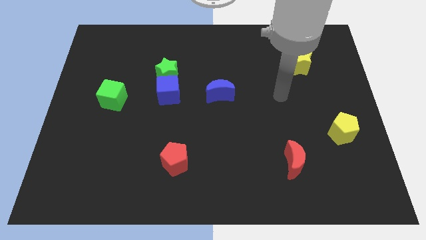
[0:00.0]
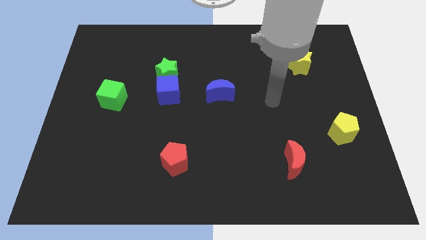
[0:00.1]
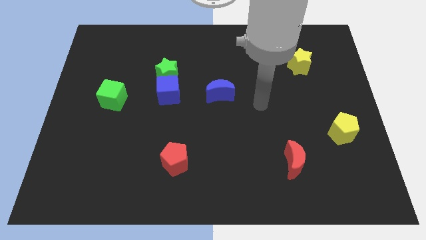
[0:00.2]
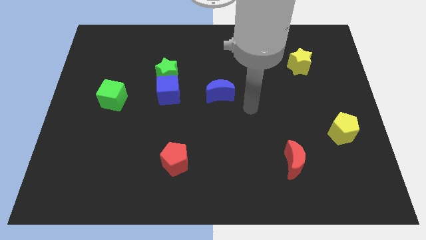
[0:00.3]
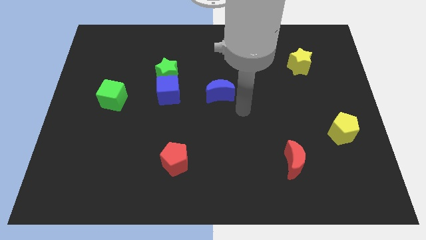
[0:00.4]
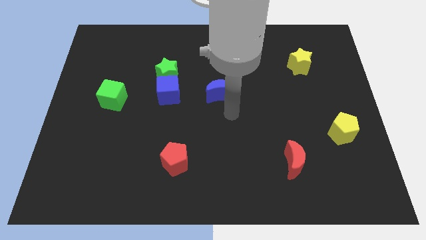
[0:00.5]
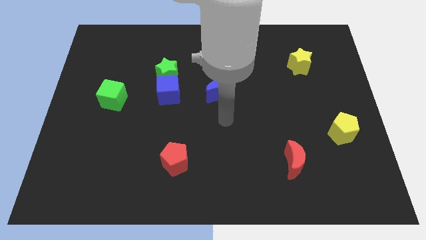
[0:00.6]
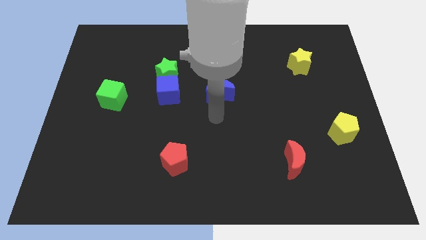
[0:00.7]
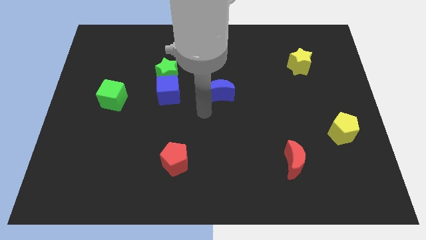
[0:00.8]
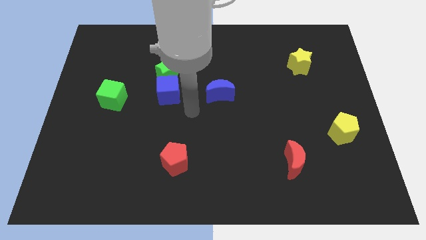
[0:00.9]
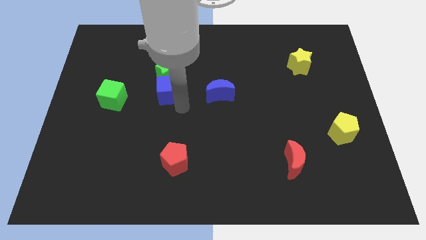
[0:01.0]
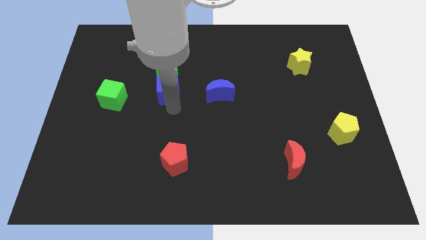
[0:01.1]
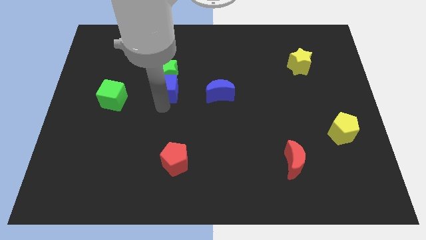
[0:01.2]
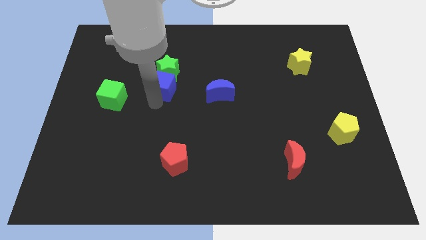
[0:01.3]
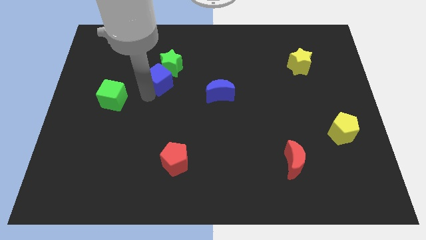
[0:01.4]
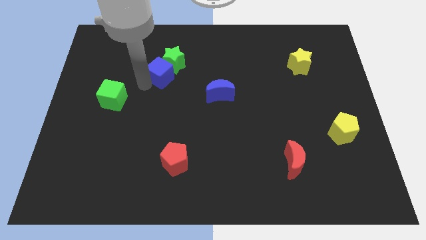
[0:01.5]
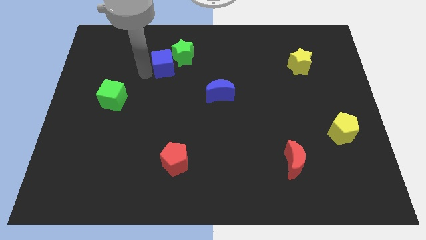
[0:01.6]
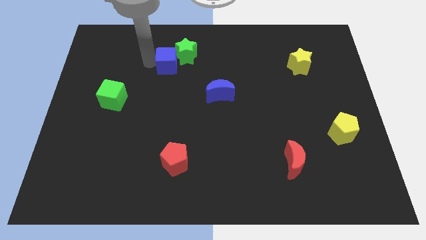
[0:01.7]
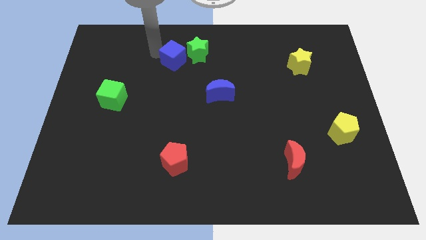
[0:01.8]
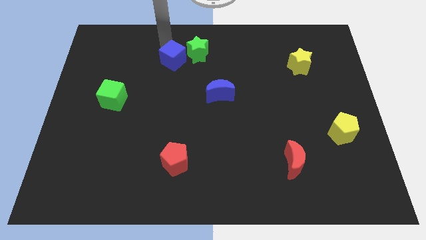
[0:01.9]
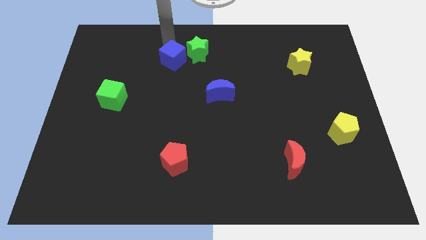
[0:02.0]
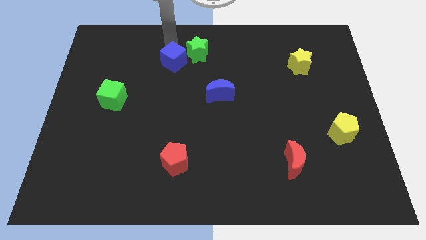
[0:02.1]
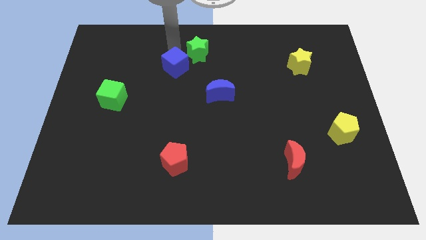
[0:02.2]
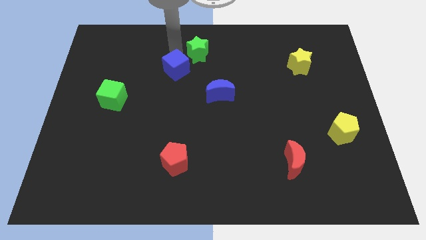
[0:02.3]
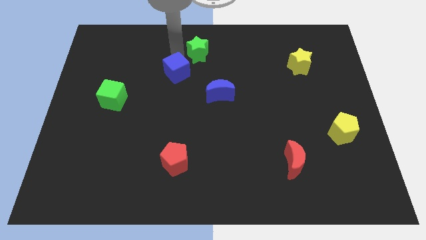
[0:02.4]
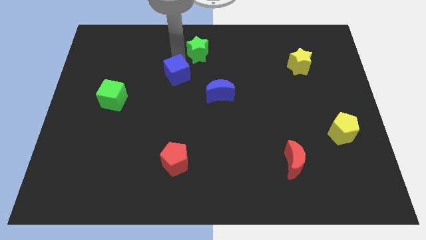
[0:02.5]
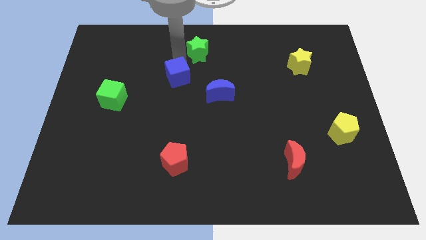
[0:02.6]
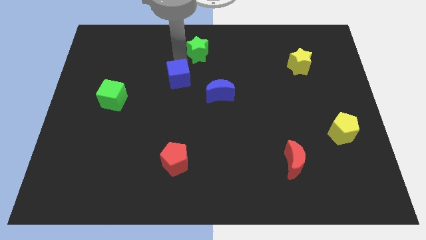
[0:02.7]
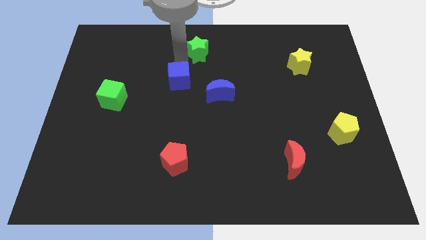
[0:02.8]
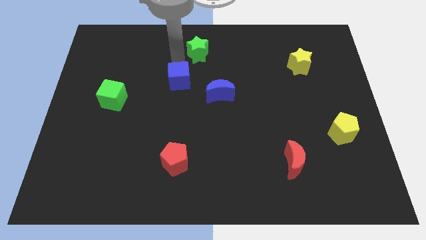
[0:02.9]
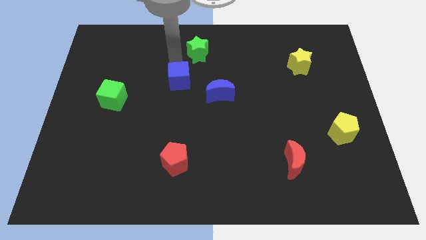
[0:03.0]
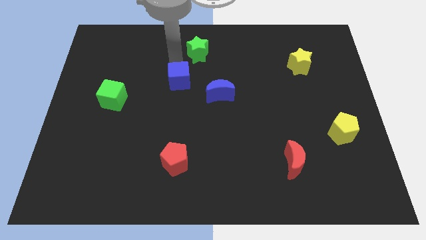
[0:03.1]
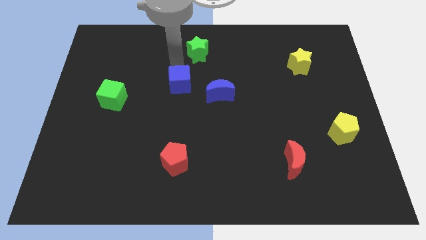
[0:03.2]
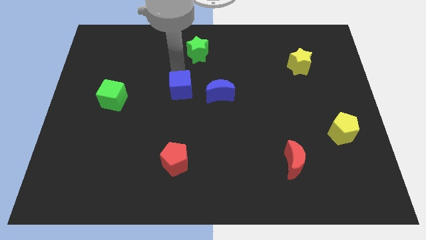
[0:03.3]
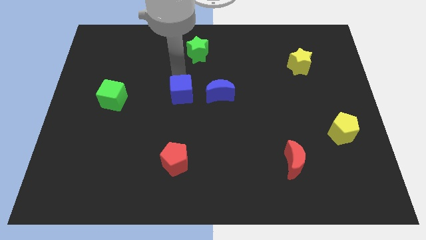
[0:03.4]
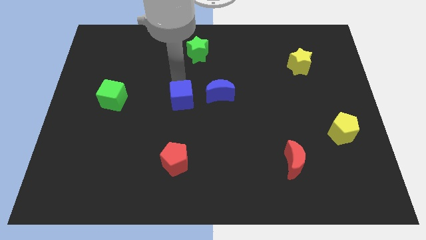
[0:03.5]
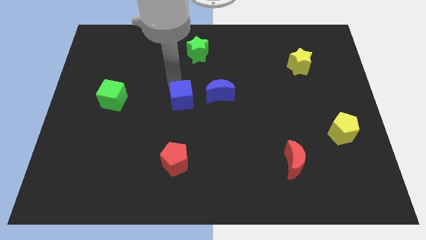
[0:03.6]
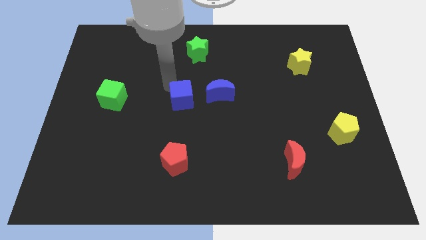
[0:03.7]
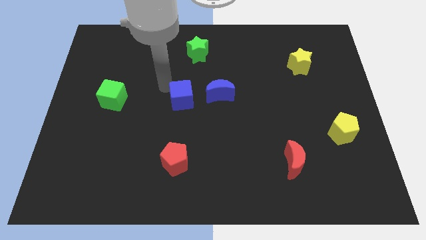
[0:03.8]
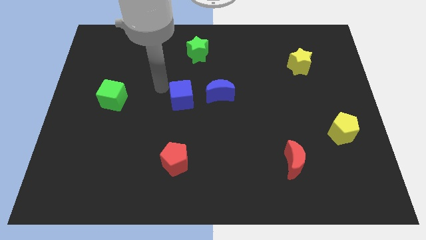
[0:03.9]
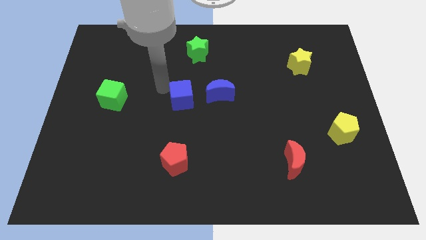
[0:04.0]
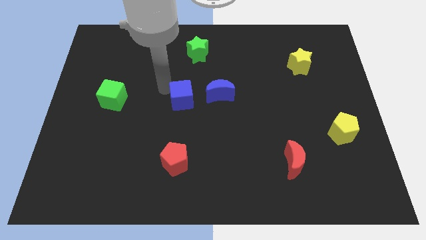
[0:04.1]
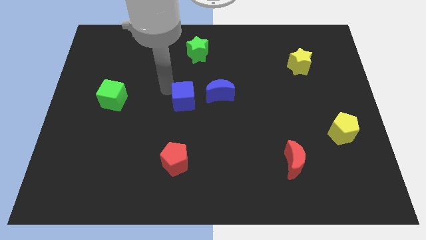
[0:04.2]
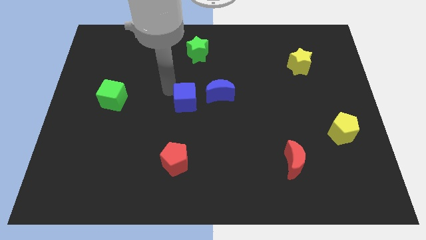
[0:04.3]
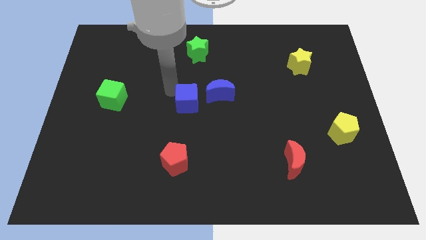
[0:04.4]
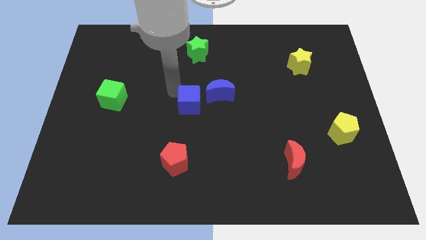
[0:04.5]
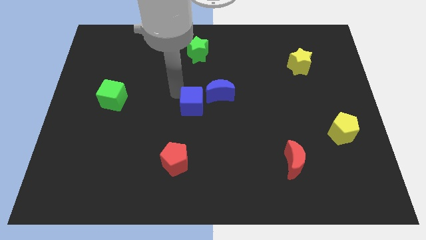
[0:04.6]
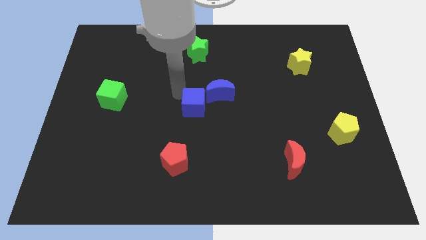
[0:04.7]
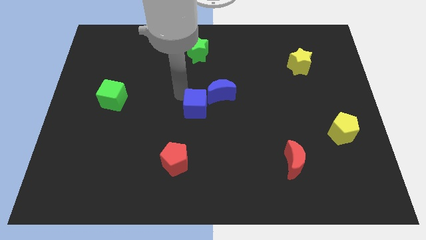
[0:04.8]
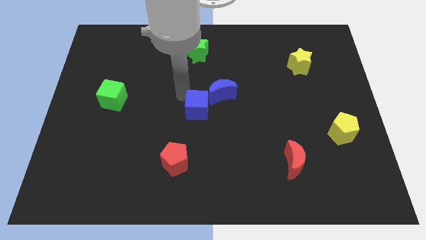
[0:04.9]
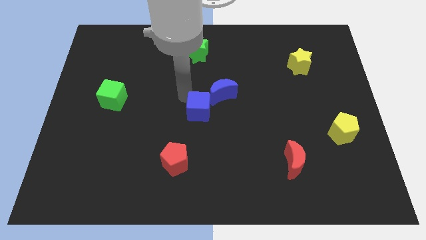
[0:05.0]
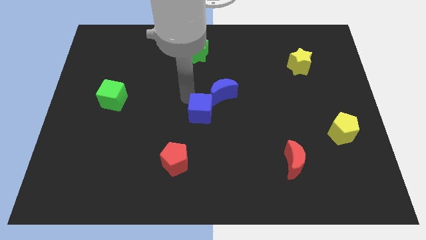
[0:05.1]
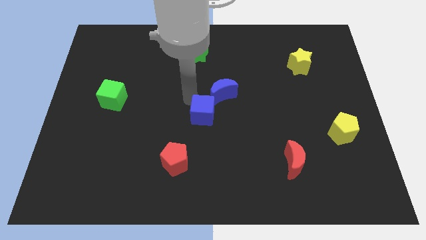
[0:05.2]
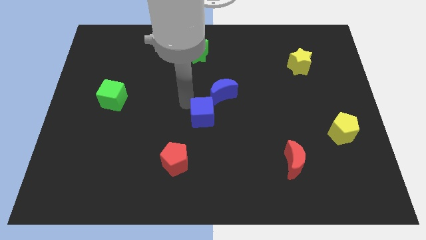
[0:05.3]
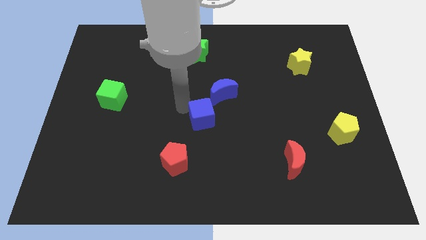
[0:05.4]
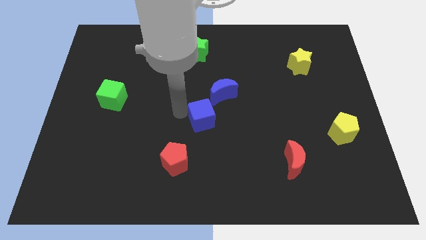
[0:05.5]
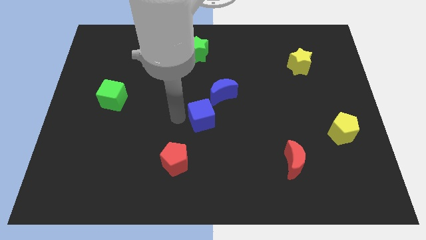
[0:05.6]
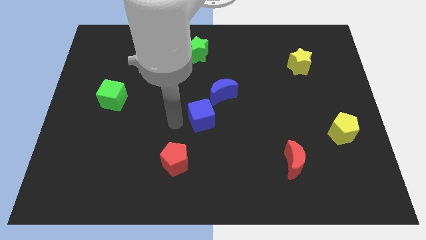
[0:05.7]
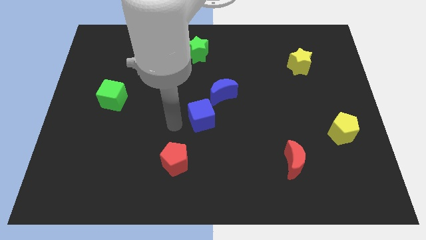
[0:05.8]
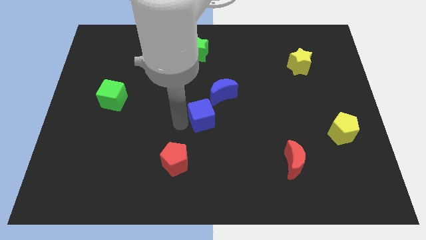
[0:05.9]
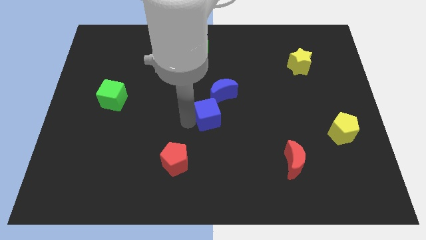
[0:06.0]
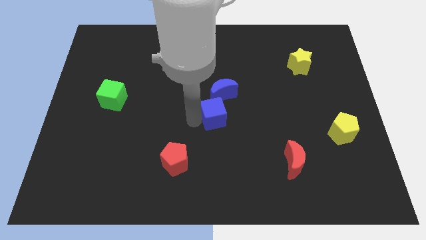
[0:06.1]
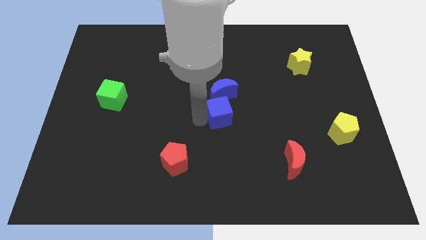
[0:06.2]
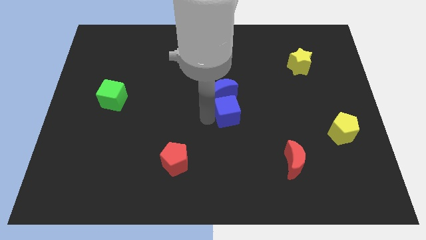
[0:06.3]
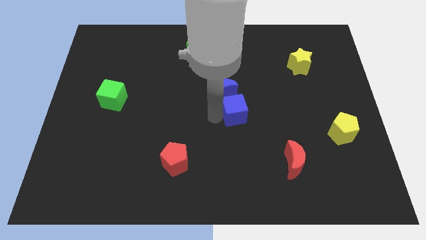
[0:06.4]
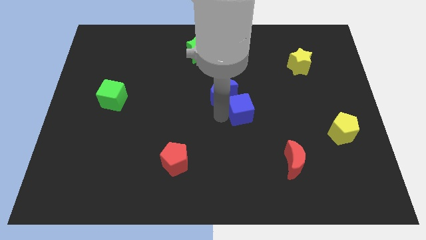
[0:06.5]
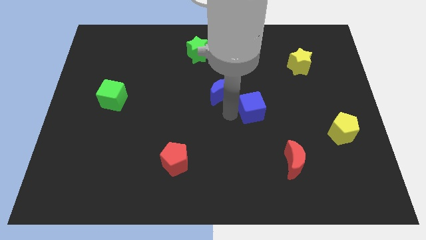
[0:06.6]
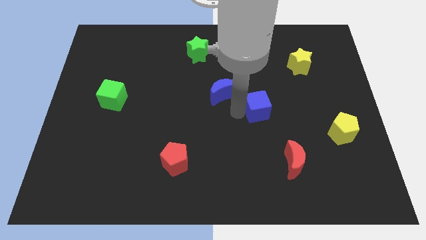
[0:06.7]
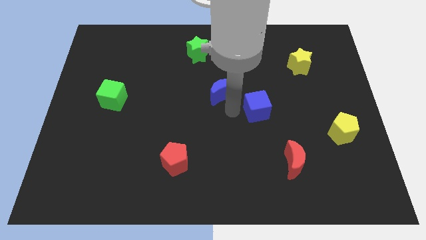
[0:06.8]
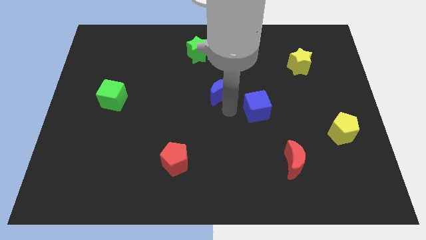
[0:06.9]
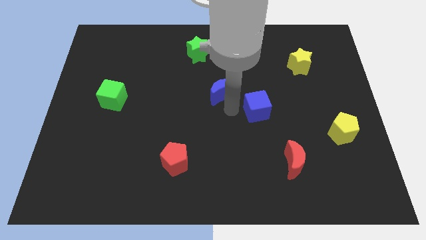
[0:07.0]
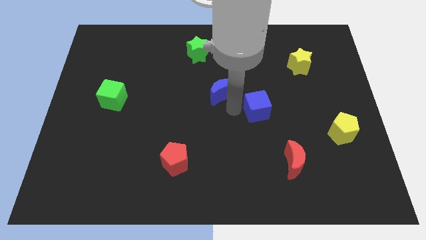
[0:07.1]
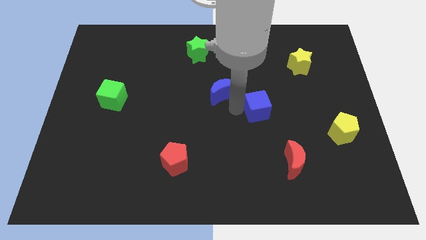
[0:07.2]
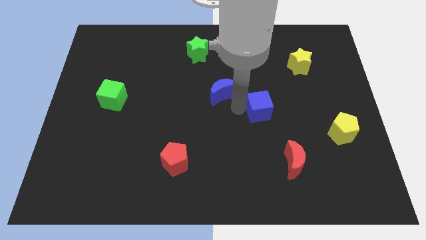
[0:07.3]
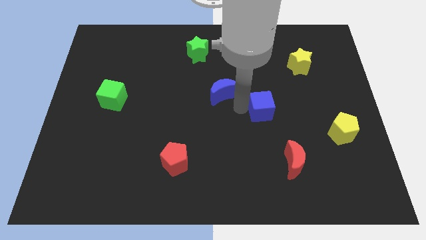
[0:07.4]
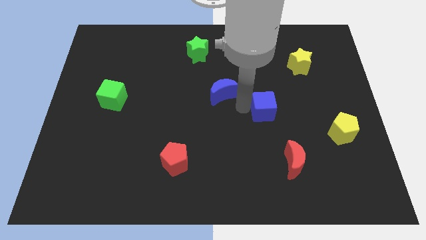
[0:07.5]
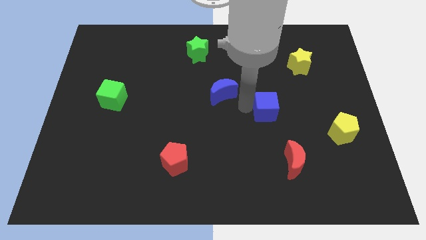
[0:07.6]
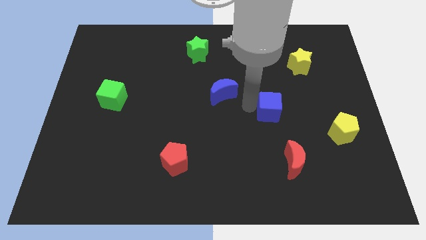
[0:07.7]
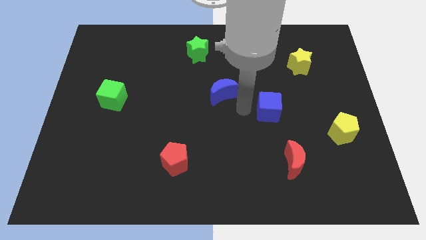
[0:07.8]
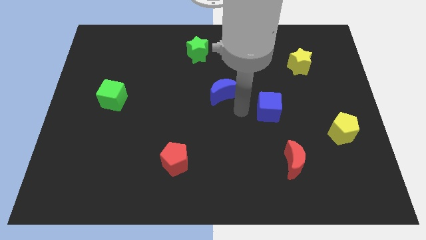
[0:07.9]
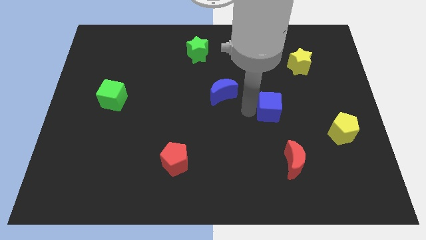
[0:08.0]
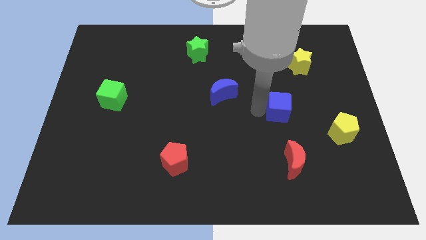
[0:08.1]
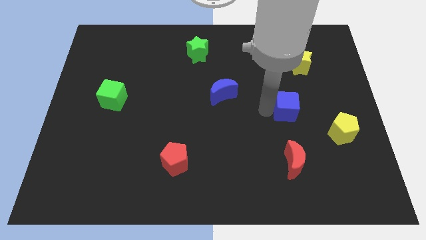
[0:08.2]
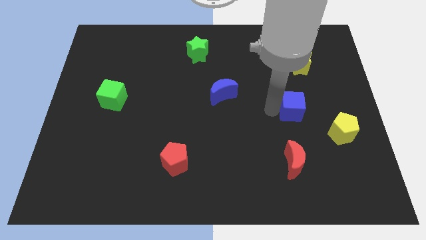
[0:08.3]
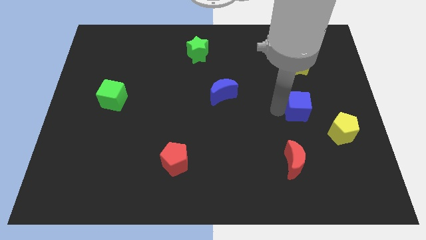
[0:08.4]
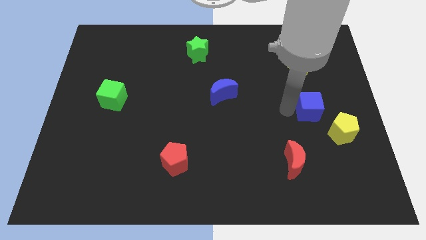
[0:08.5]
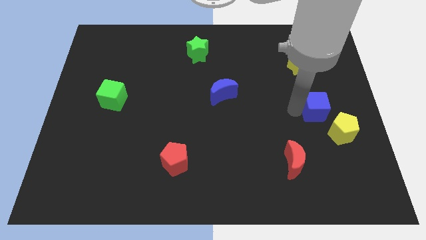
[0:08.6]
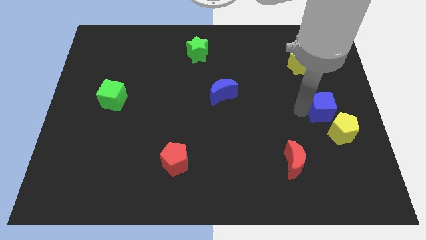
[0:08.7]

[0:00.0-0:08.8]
slide the blue cube to the right side
